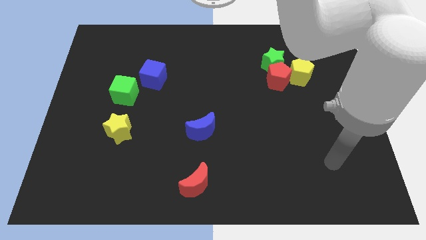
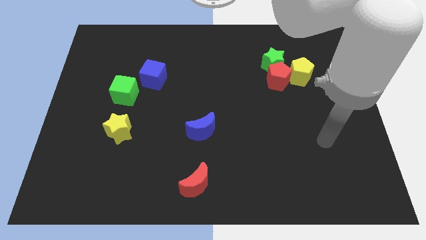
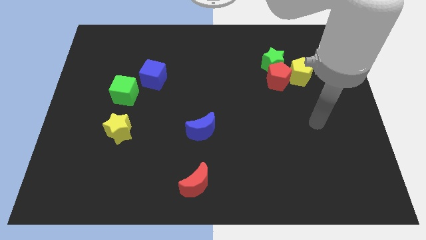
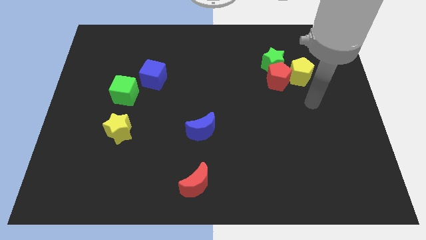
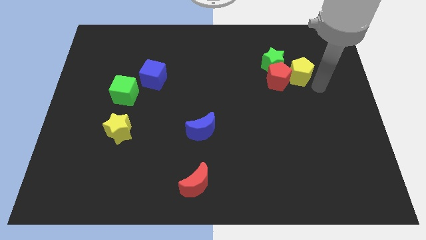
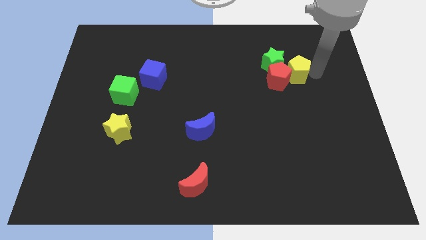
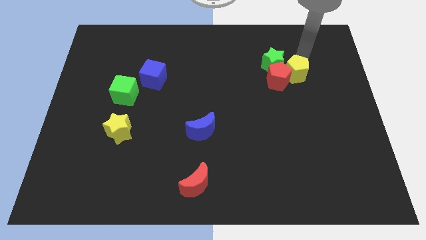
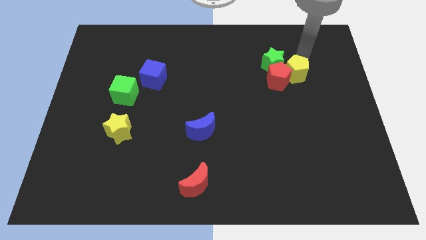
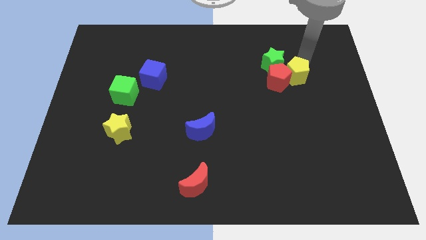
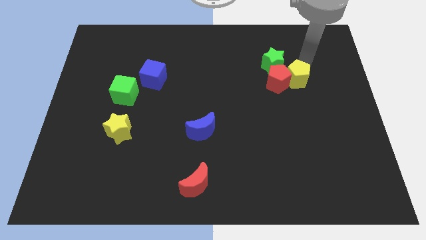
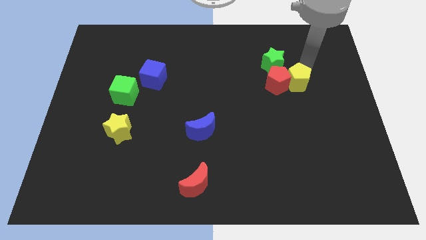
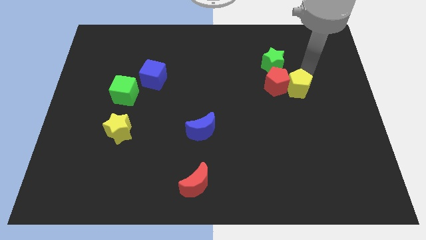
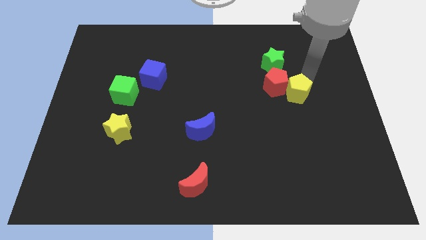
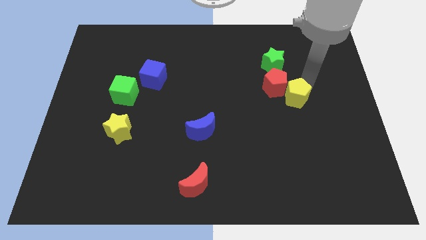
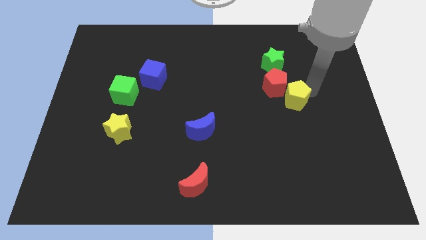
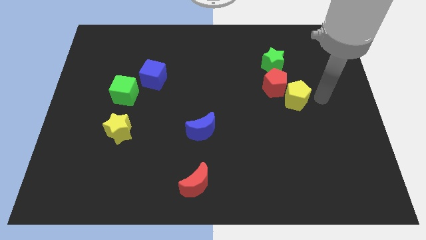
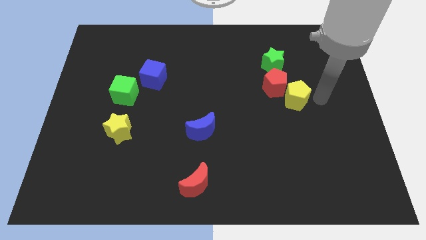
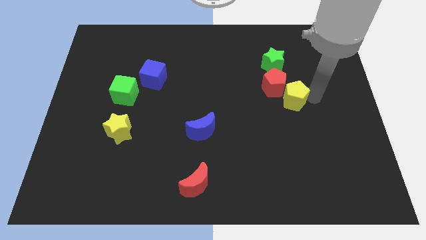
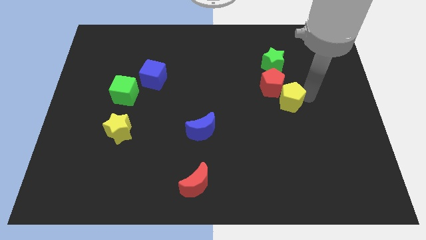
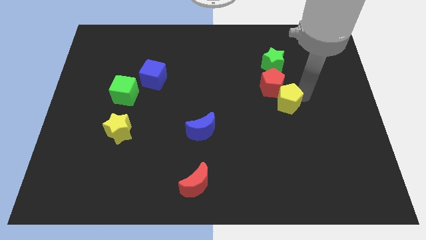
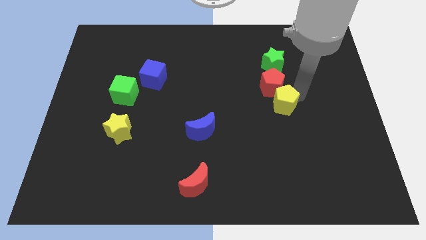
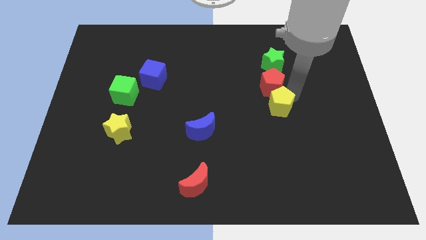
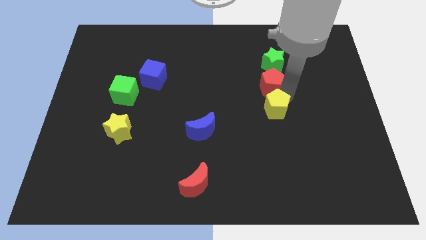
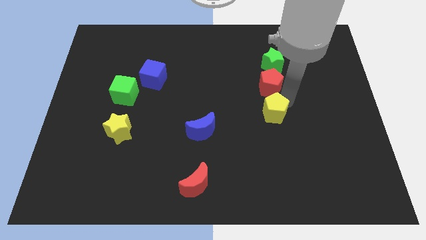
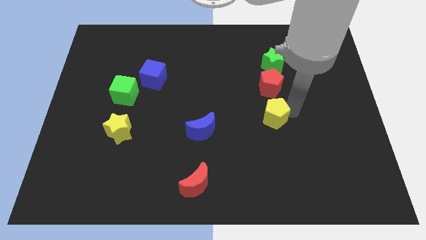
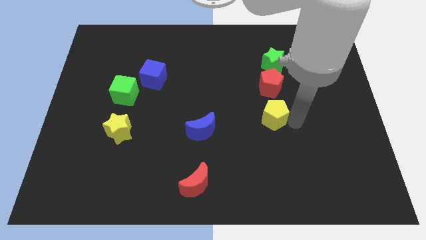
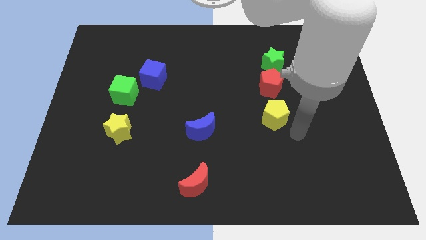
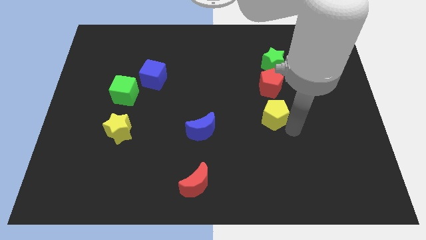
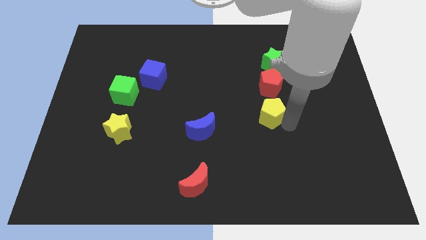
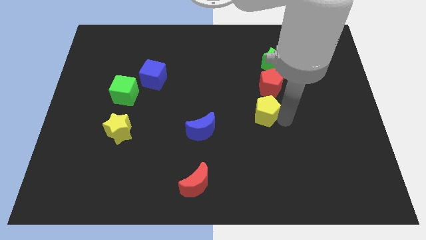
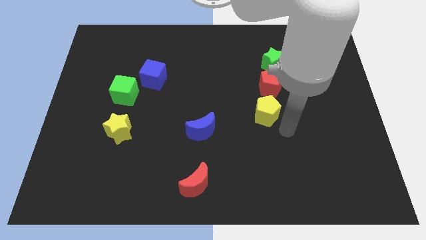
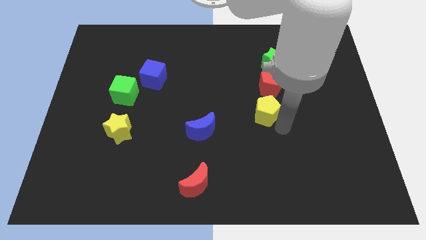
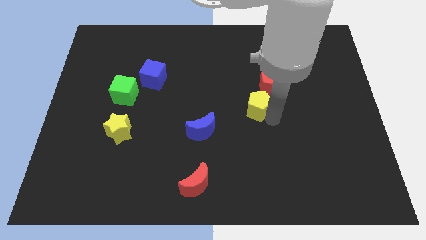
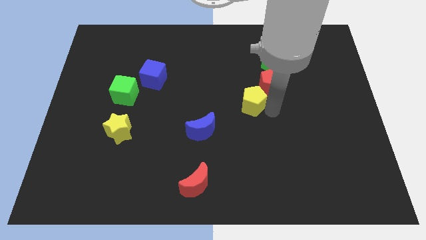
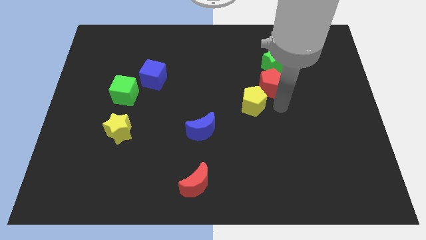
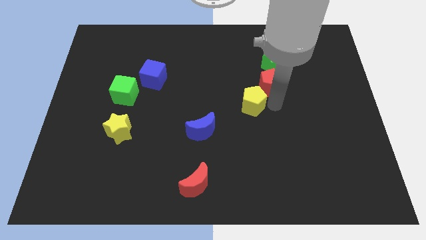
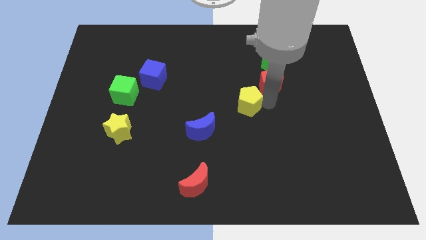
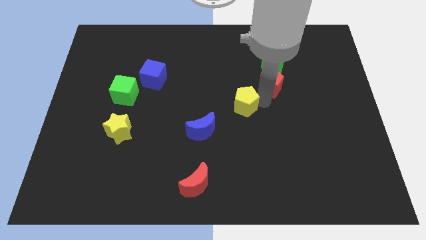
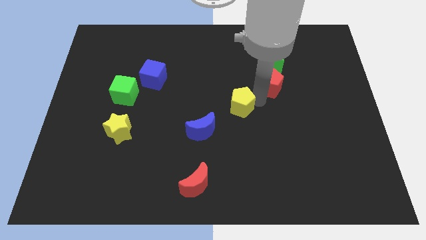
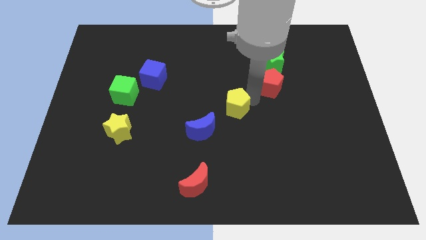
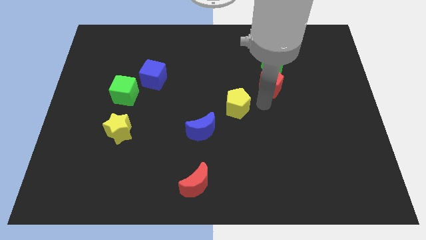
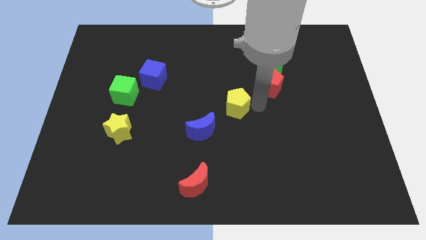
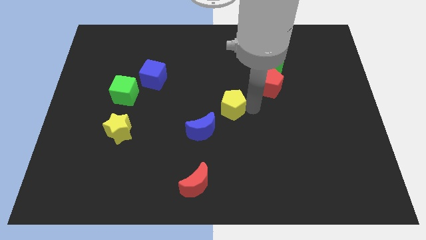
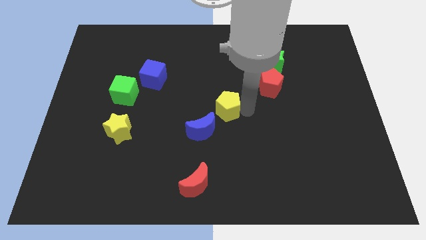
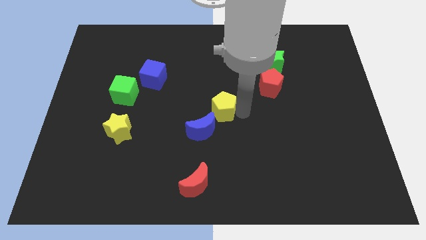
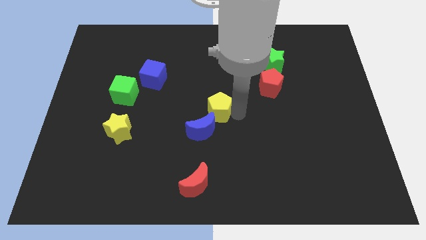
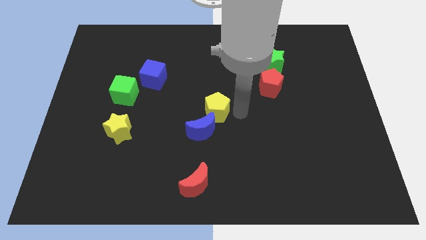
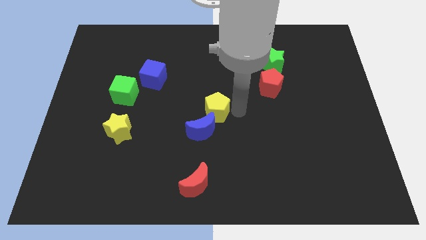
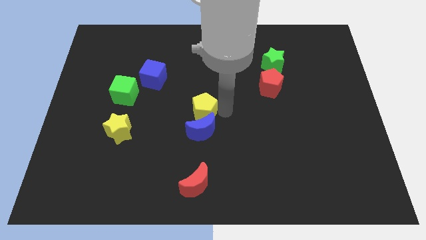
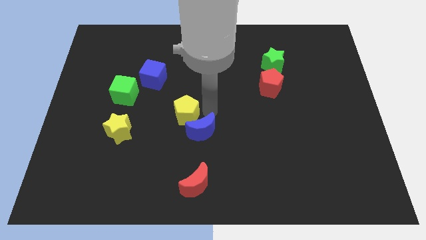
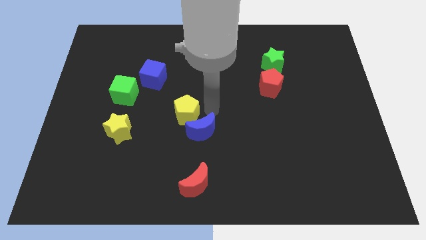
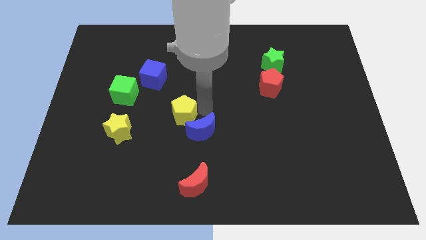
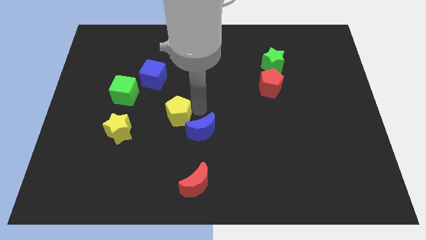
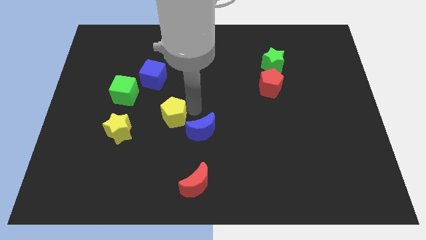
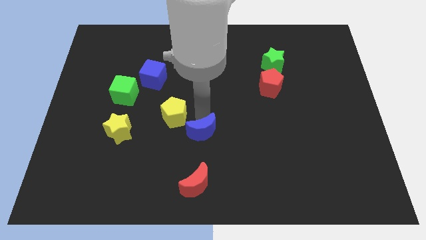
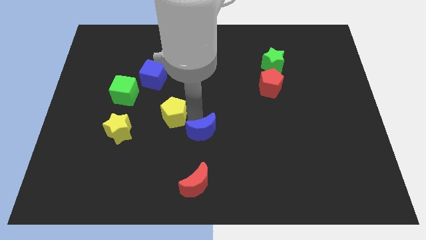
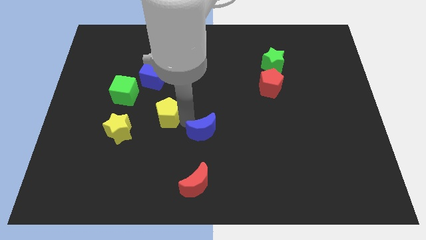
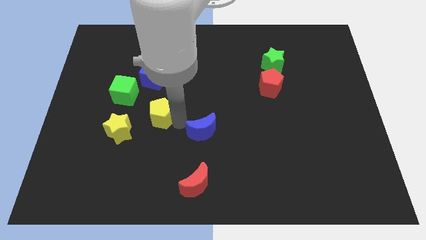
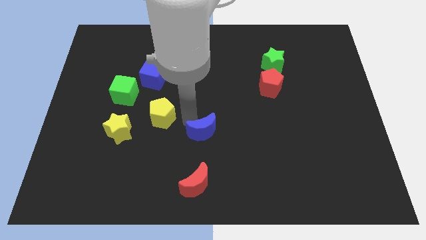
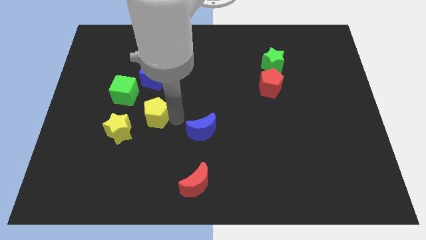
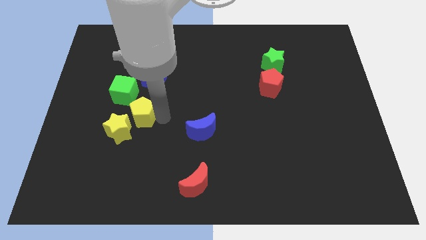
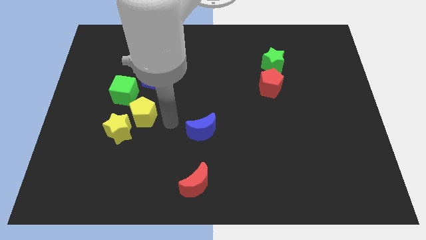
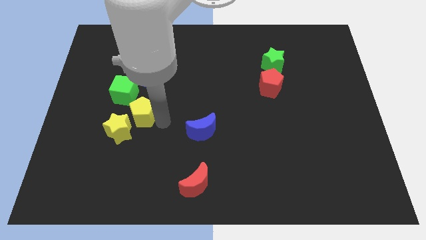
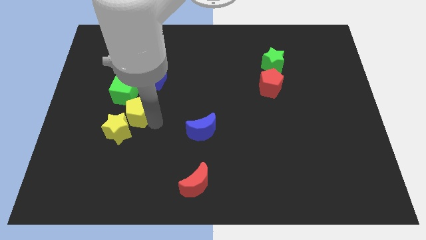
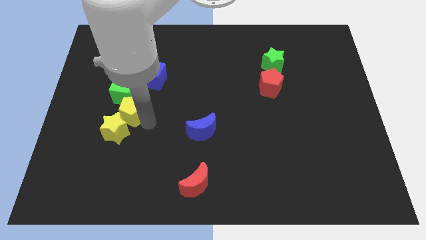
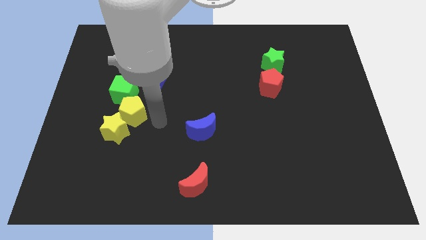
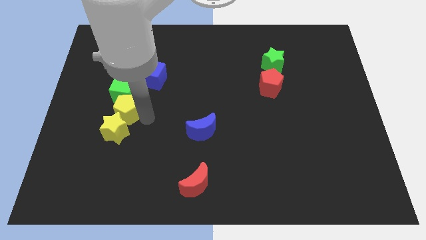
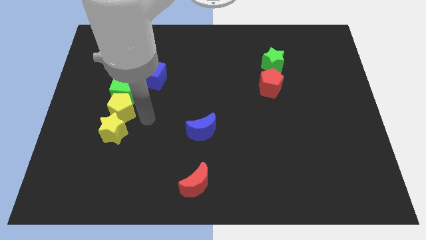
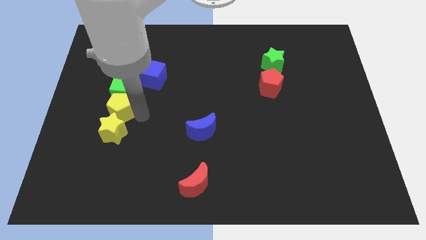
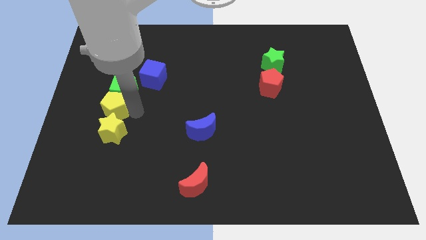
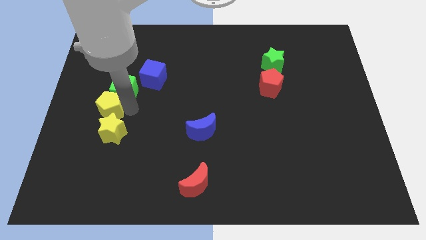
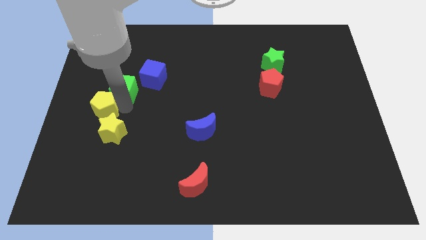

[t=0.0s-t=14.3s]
push the yellow pentagon to the left side of the board
